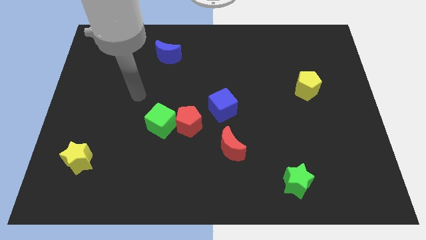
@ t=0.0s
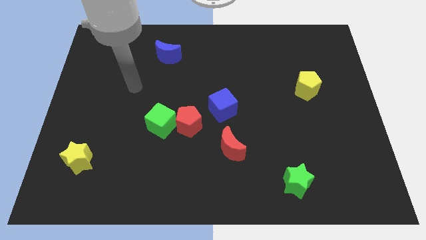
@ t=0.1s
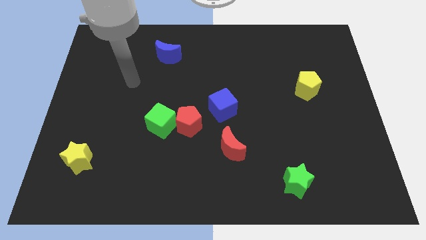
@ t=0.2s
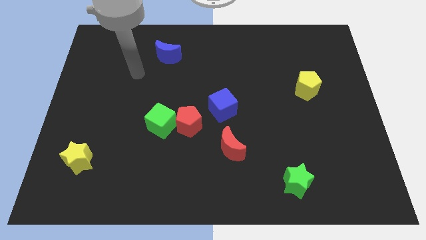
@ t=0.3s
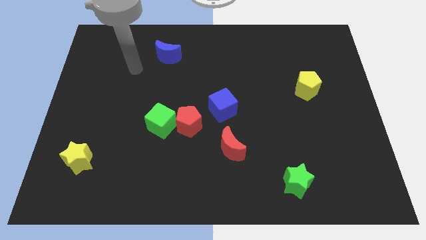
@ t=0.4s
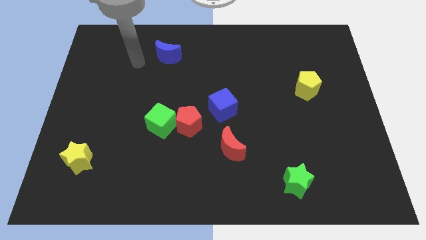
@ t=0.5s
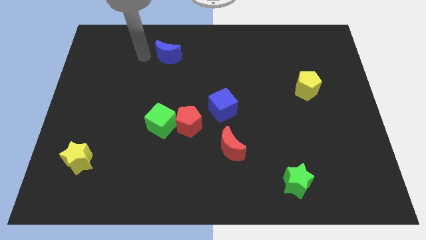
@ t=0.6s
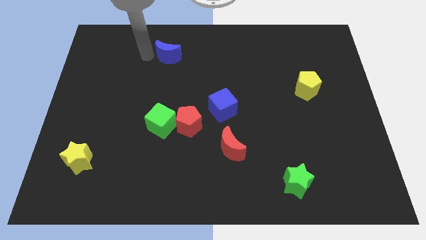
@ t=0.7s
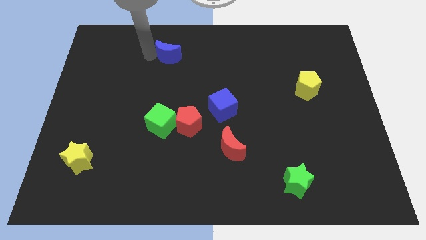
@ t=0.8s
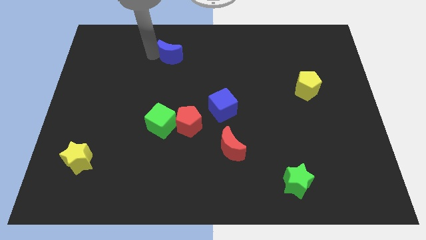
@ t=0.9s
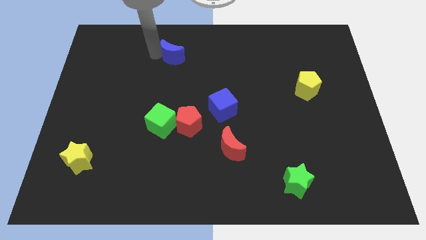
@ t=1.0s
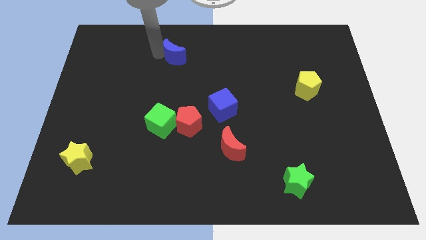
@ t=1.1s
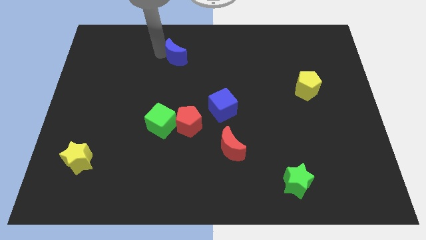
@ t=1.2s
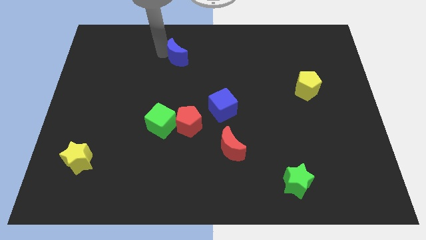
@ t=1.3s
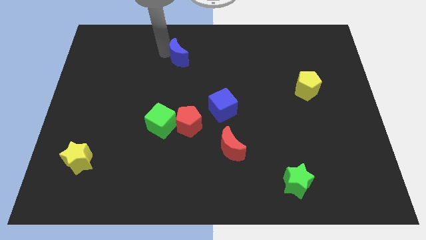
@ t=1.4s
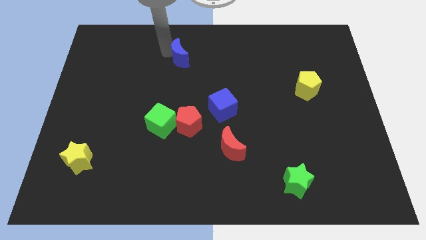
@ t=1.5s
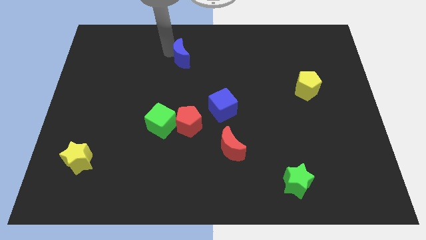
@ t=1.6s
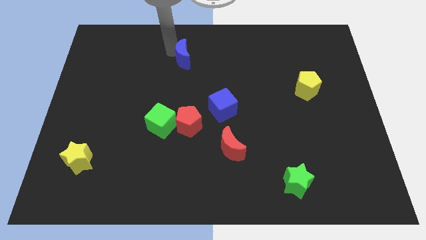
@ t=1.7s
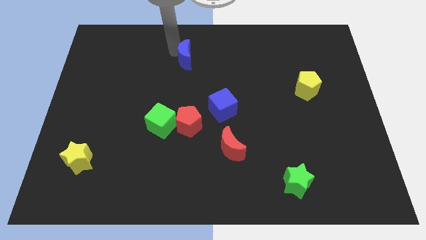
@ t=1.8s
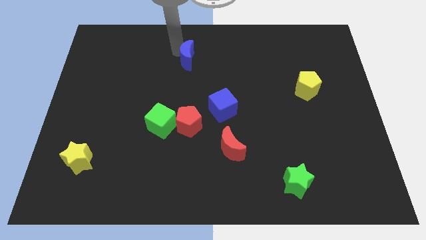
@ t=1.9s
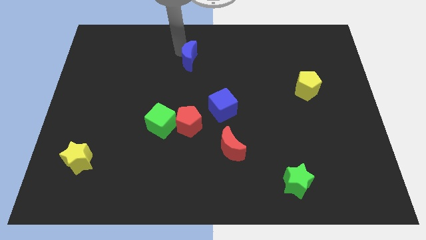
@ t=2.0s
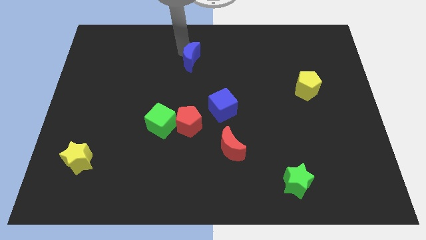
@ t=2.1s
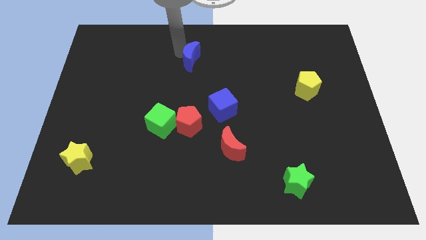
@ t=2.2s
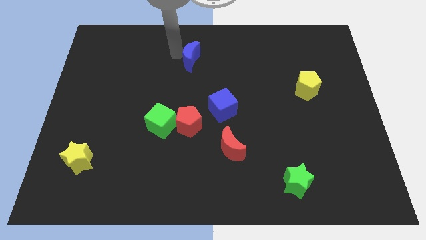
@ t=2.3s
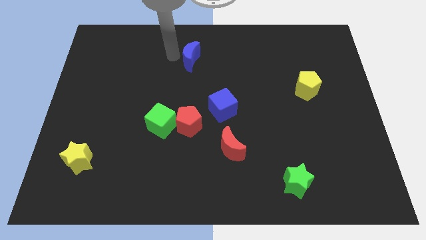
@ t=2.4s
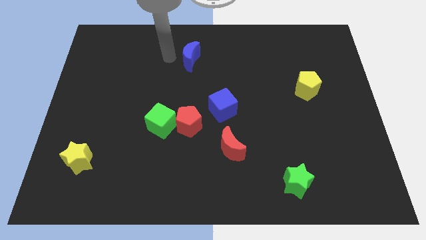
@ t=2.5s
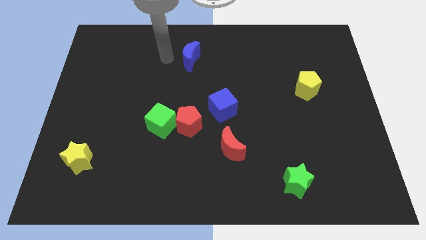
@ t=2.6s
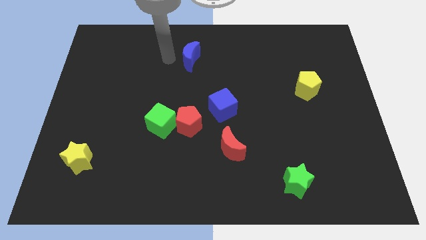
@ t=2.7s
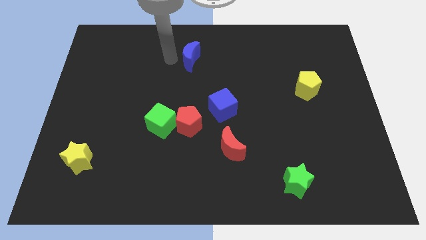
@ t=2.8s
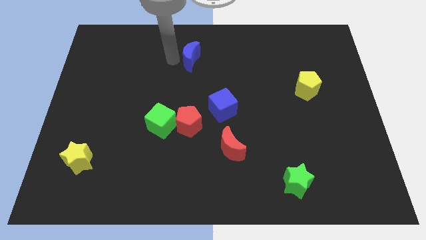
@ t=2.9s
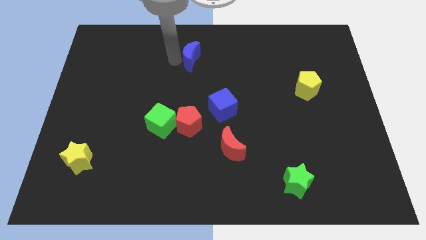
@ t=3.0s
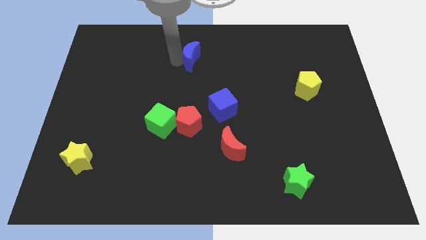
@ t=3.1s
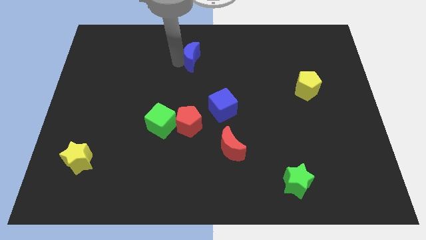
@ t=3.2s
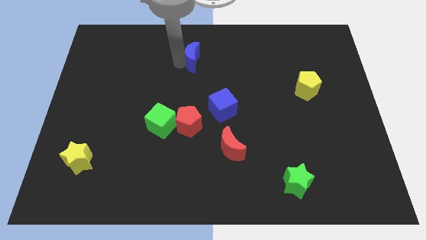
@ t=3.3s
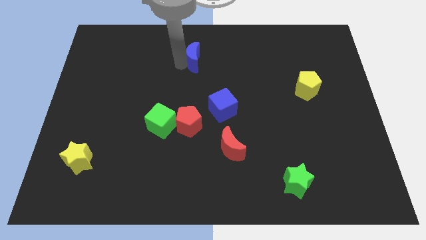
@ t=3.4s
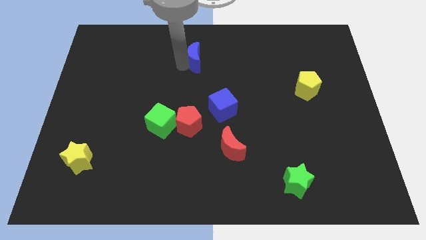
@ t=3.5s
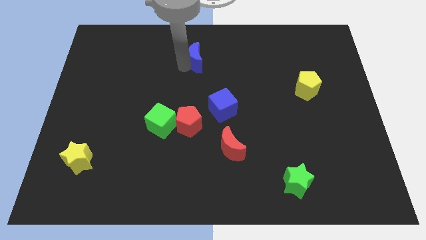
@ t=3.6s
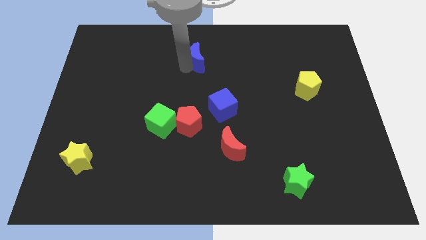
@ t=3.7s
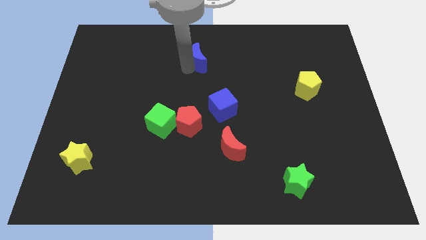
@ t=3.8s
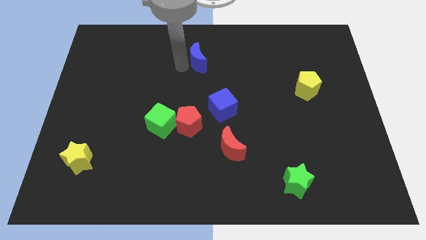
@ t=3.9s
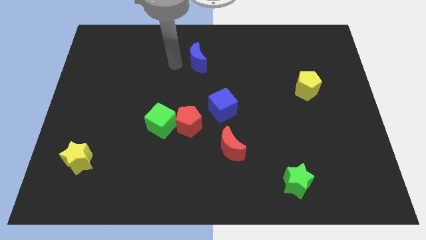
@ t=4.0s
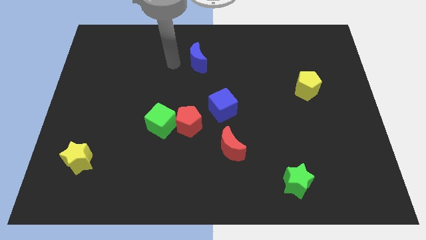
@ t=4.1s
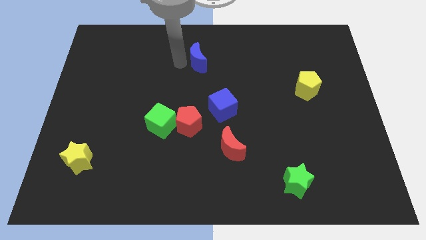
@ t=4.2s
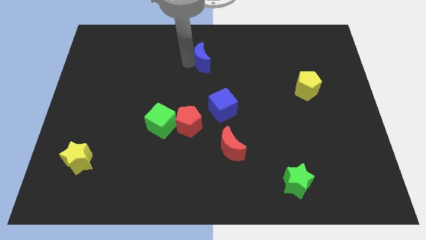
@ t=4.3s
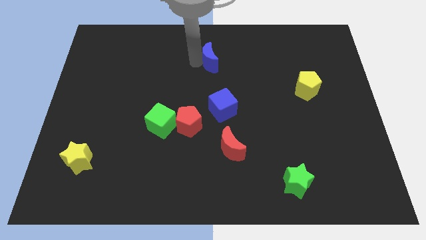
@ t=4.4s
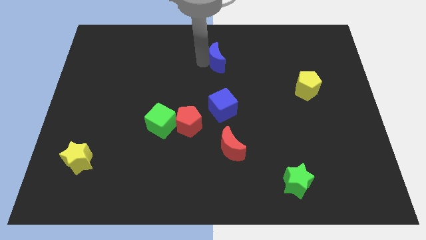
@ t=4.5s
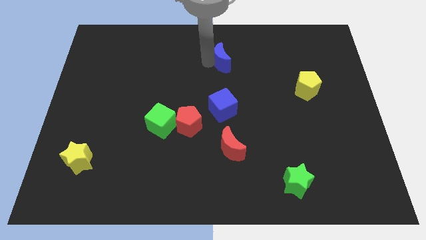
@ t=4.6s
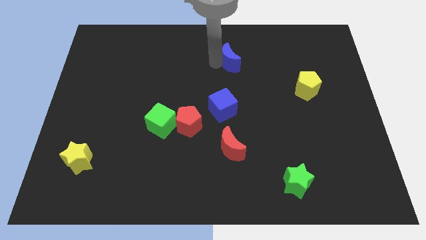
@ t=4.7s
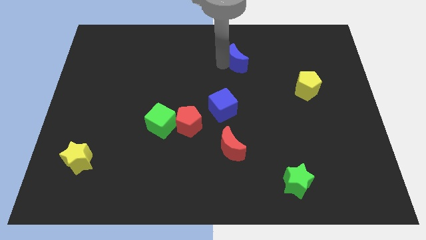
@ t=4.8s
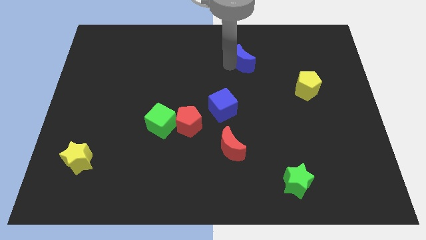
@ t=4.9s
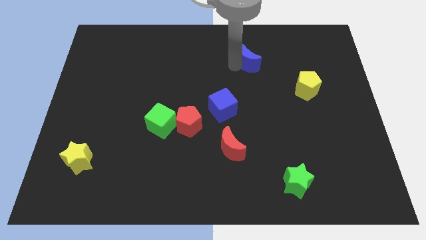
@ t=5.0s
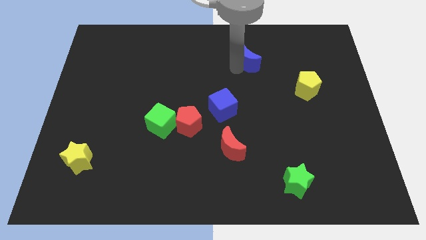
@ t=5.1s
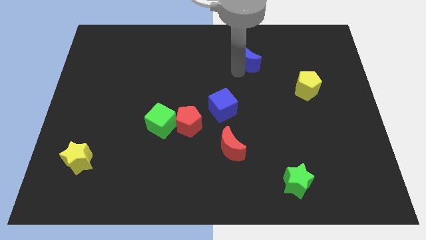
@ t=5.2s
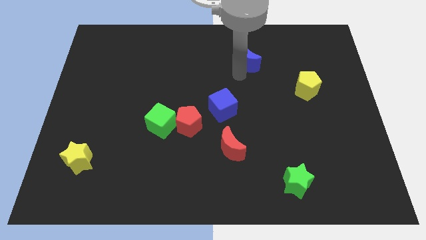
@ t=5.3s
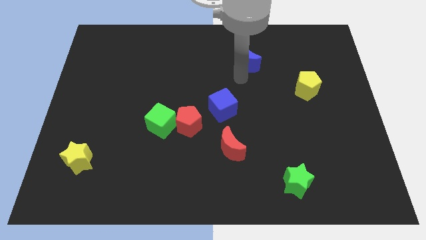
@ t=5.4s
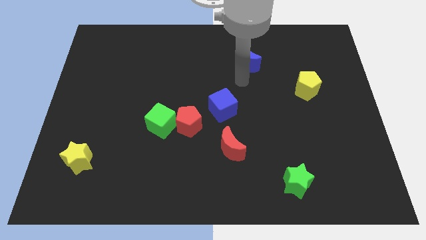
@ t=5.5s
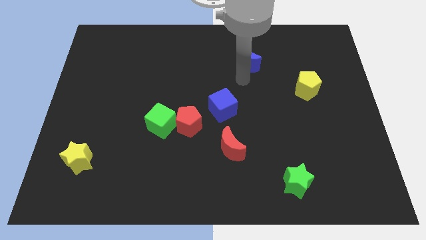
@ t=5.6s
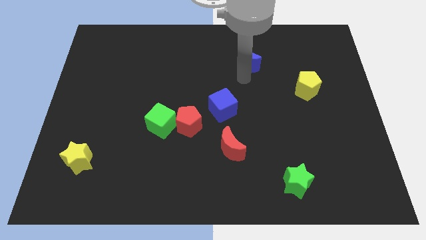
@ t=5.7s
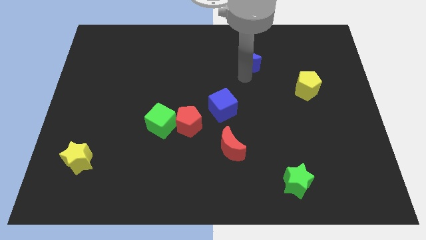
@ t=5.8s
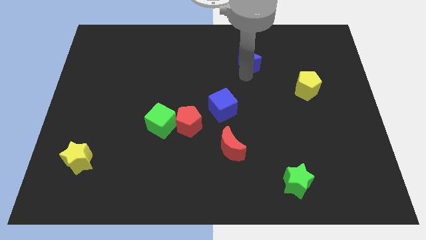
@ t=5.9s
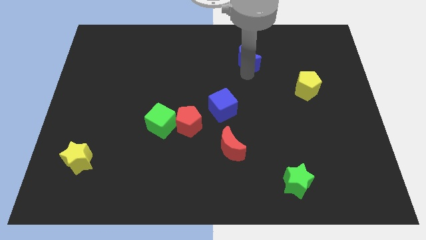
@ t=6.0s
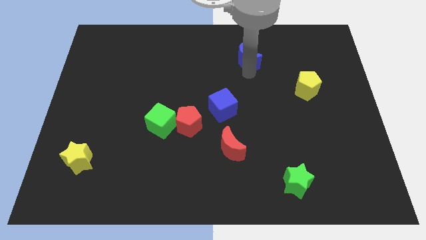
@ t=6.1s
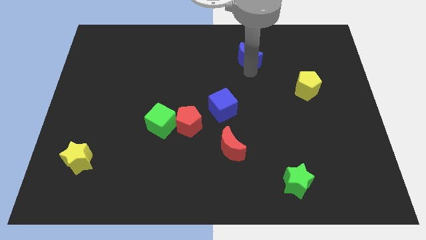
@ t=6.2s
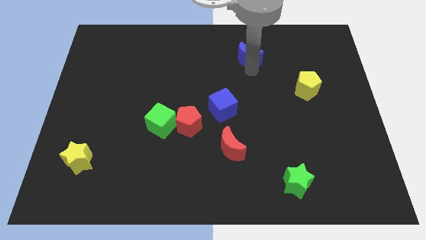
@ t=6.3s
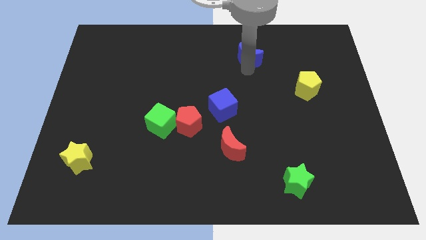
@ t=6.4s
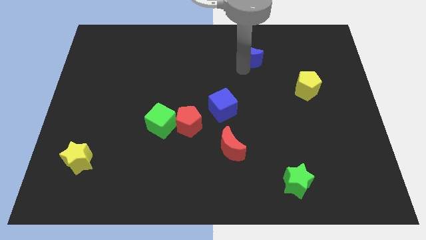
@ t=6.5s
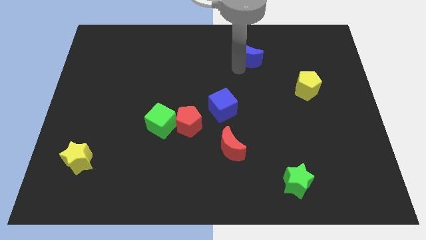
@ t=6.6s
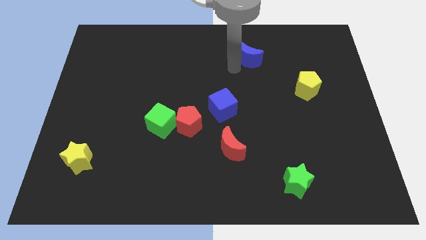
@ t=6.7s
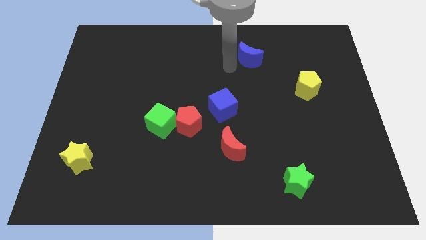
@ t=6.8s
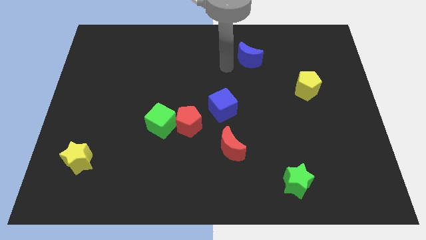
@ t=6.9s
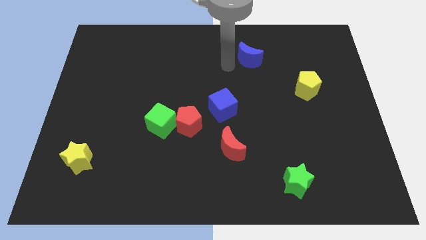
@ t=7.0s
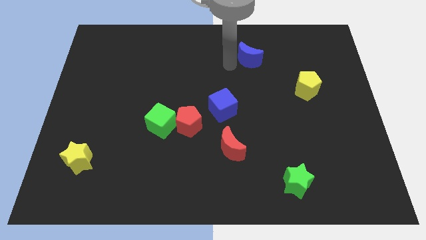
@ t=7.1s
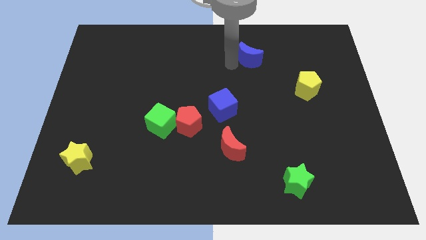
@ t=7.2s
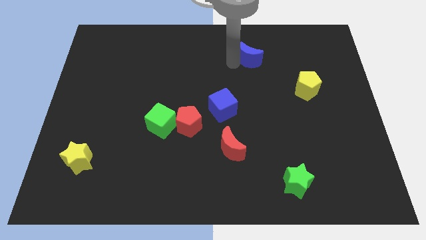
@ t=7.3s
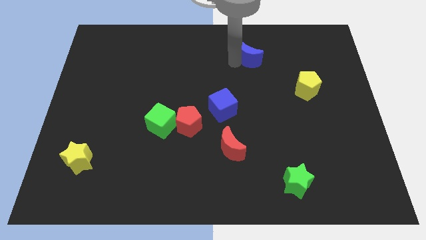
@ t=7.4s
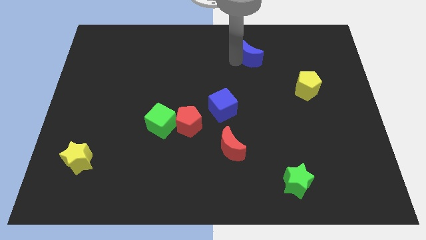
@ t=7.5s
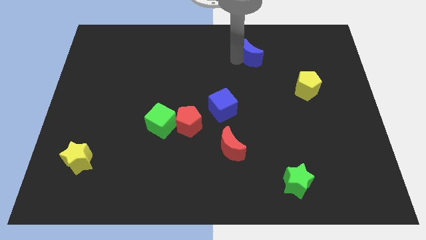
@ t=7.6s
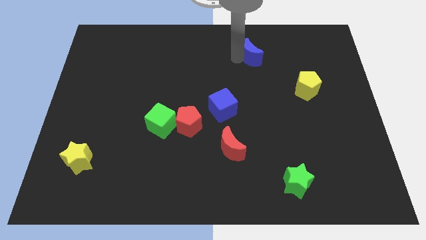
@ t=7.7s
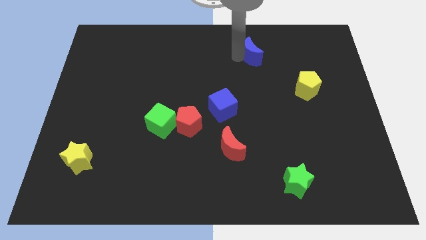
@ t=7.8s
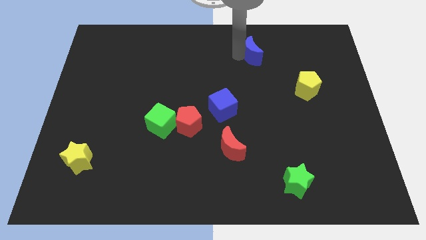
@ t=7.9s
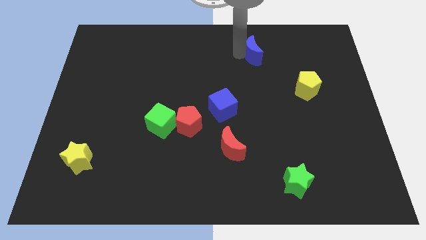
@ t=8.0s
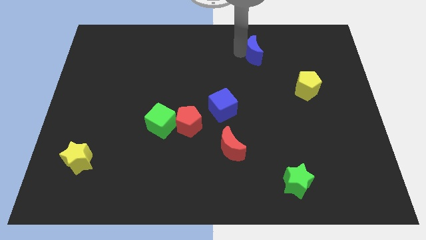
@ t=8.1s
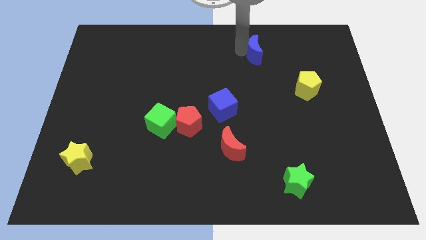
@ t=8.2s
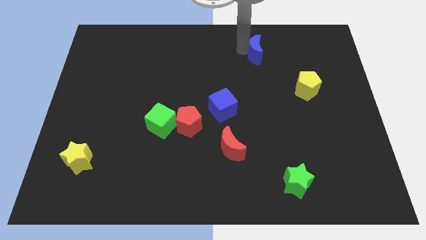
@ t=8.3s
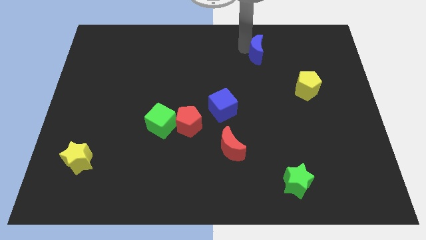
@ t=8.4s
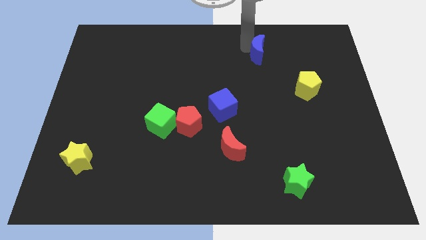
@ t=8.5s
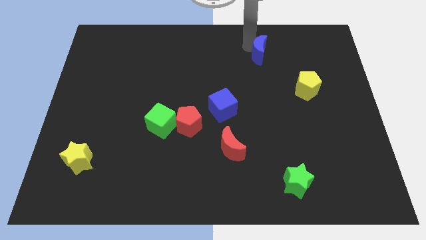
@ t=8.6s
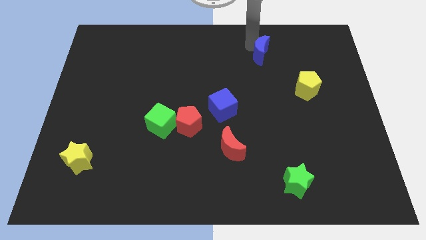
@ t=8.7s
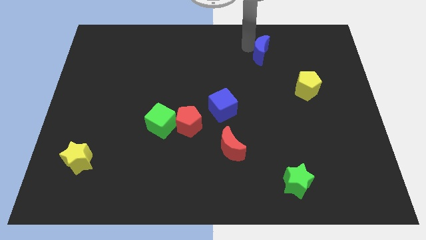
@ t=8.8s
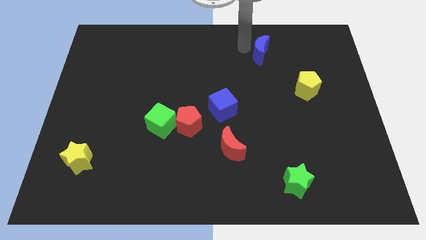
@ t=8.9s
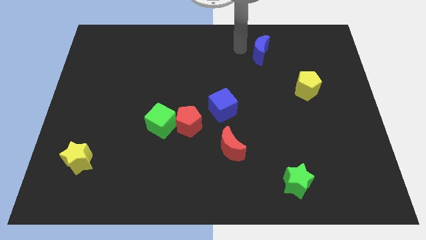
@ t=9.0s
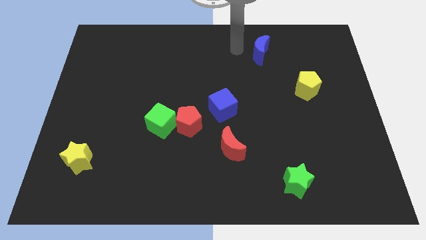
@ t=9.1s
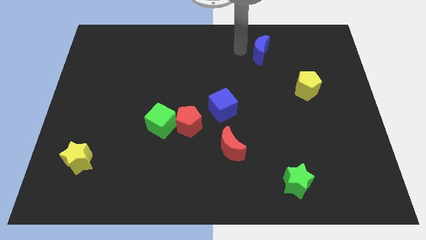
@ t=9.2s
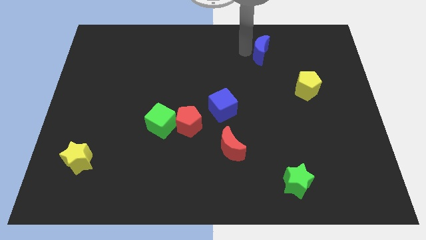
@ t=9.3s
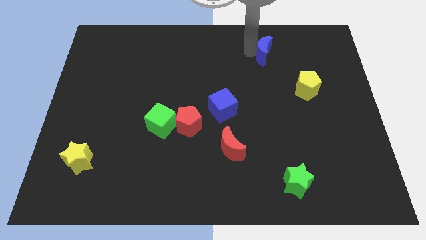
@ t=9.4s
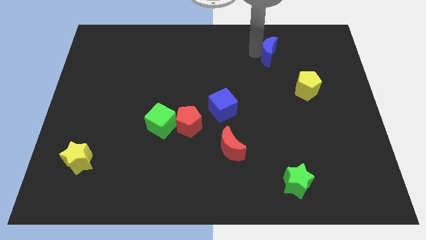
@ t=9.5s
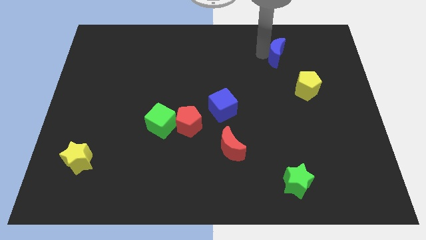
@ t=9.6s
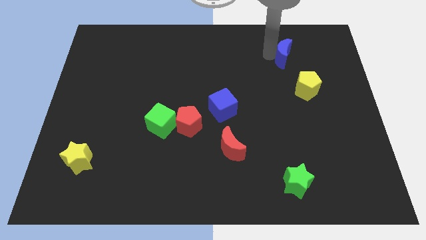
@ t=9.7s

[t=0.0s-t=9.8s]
push the blue moon to the top side of the yellow pentagon
